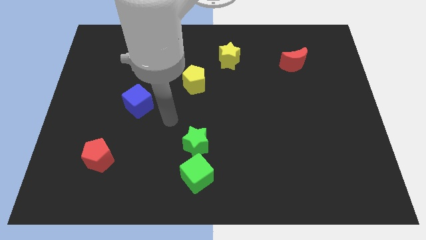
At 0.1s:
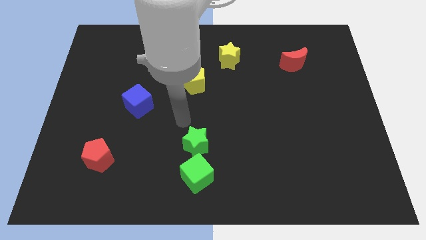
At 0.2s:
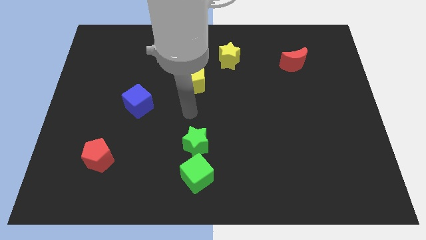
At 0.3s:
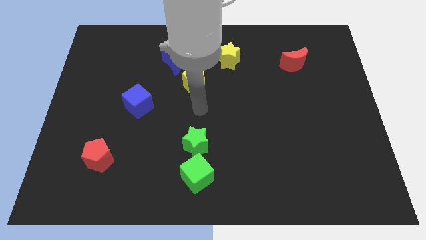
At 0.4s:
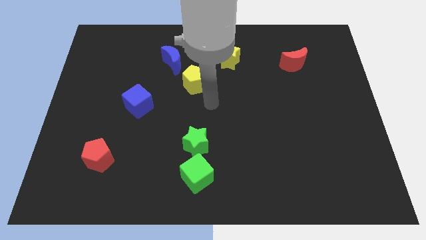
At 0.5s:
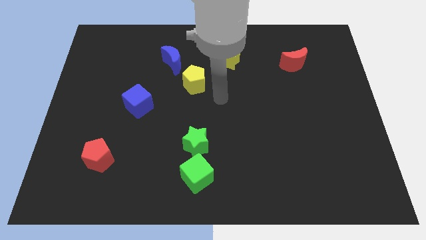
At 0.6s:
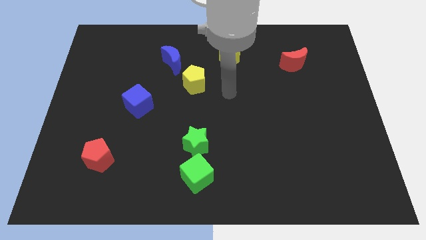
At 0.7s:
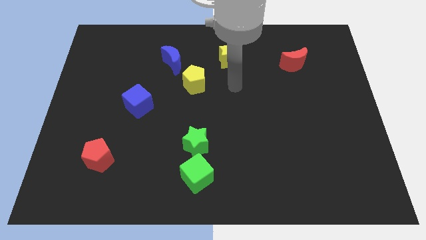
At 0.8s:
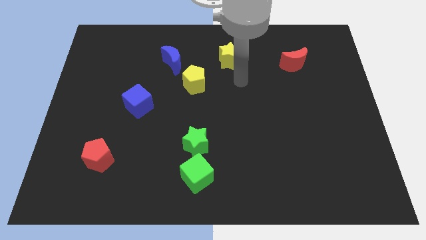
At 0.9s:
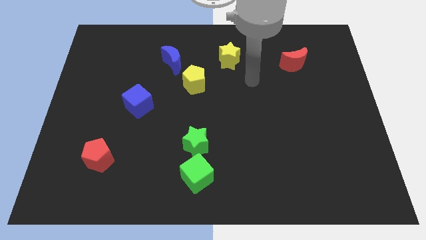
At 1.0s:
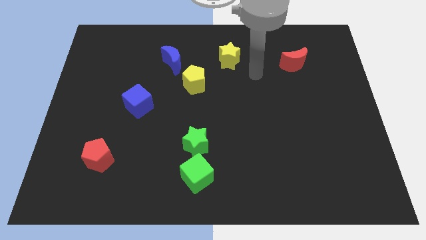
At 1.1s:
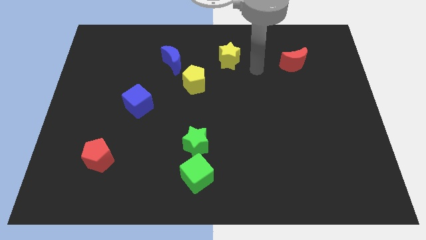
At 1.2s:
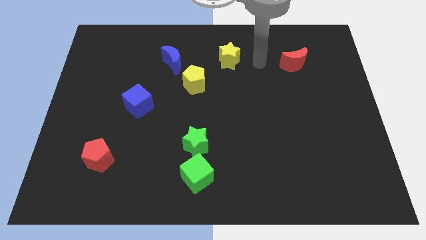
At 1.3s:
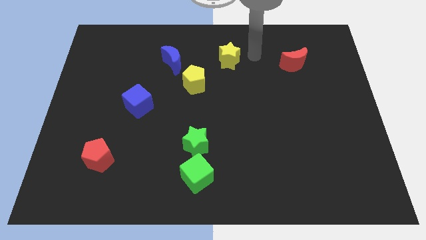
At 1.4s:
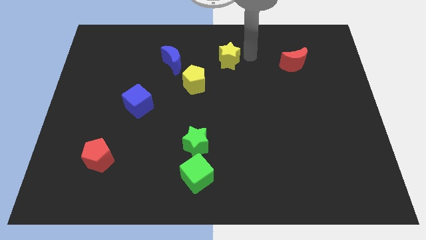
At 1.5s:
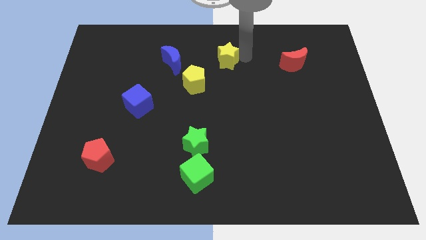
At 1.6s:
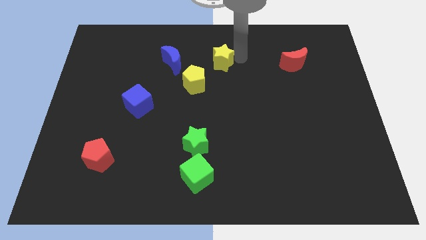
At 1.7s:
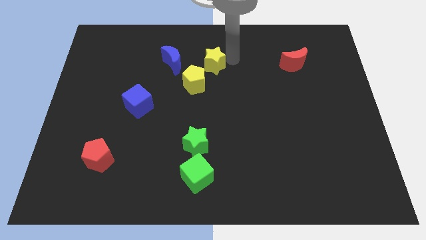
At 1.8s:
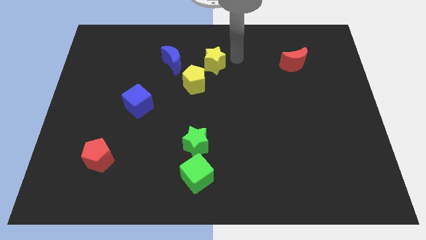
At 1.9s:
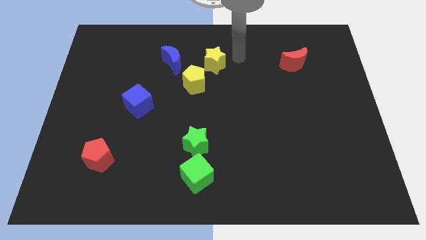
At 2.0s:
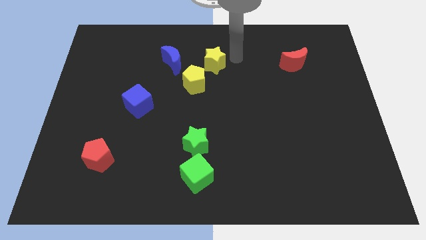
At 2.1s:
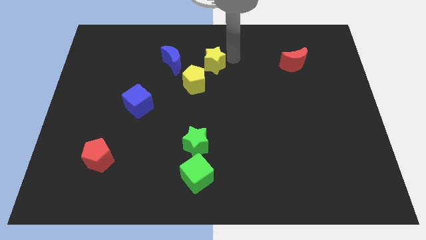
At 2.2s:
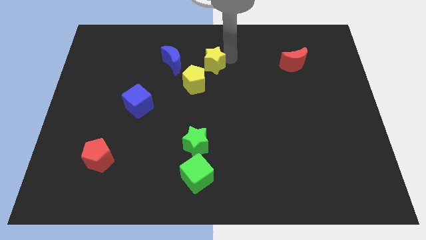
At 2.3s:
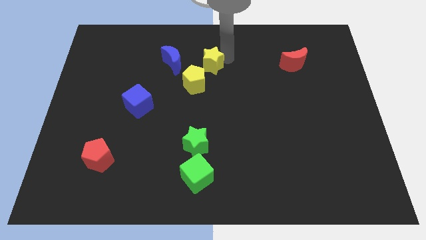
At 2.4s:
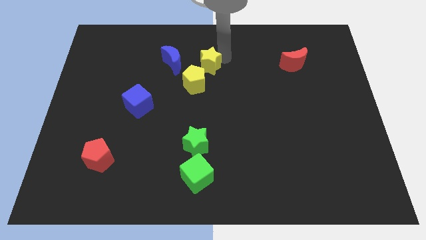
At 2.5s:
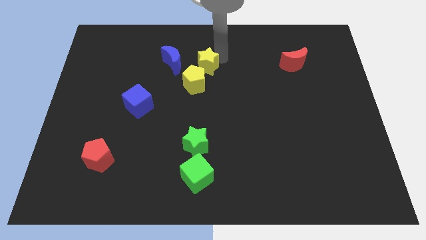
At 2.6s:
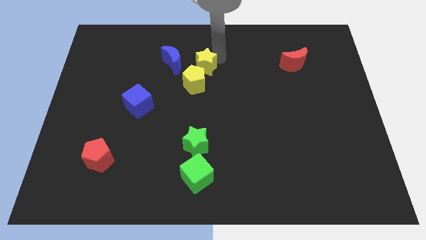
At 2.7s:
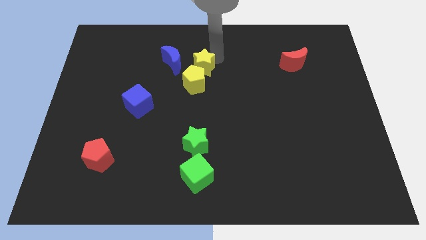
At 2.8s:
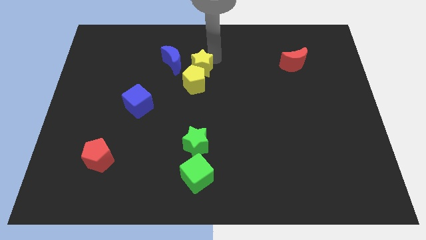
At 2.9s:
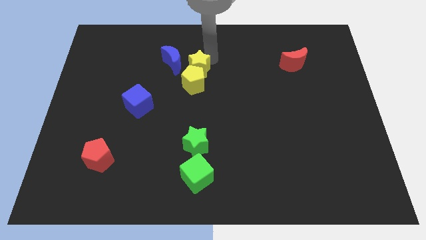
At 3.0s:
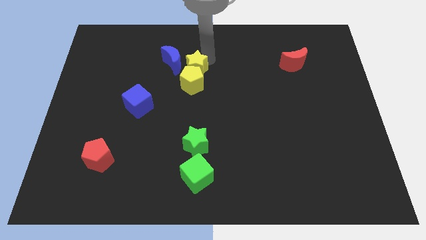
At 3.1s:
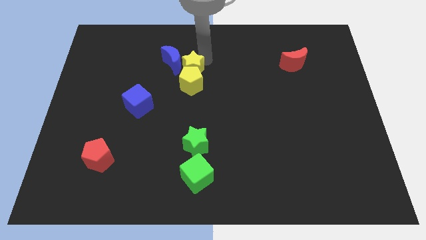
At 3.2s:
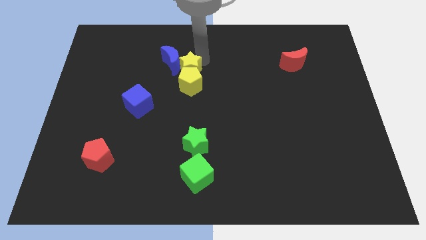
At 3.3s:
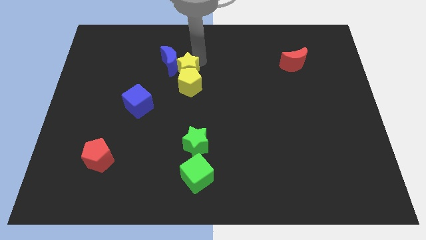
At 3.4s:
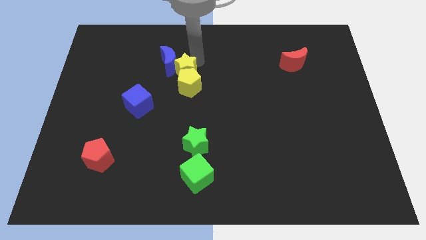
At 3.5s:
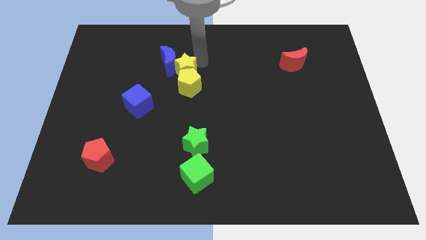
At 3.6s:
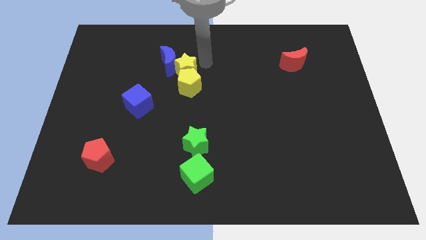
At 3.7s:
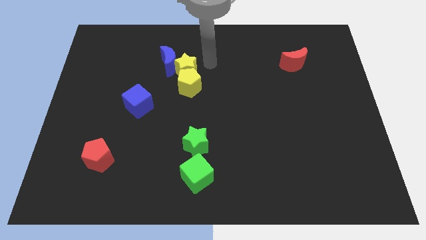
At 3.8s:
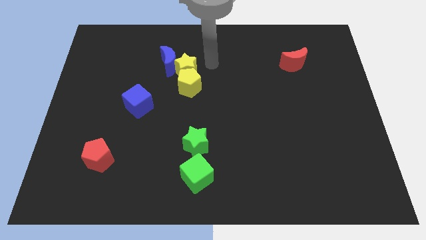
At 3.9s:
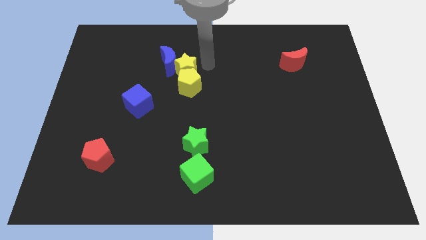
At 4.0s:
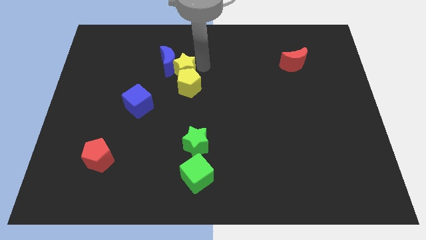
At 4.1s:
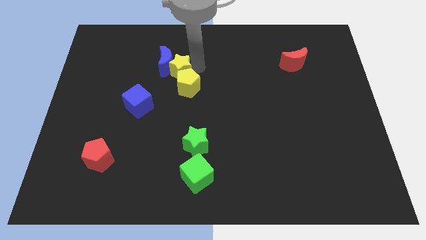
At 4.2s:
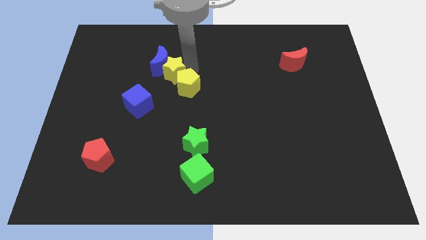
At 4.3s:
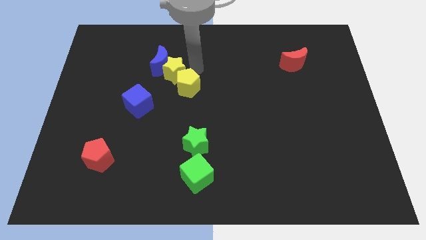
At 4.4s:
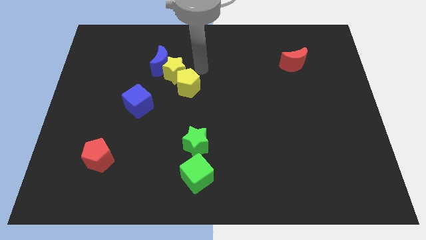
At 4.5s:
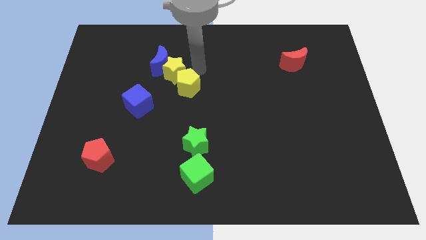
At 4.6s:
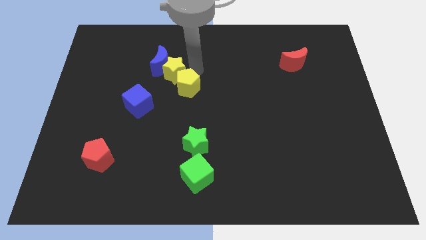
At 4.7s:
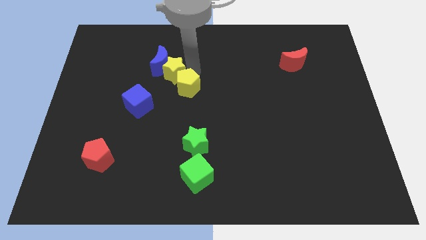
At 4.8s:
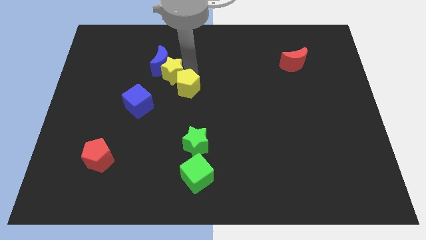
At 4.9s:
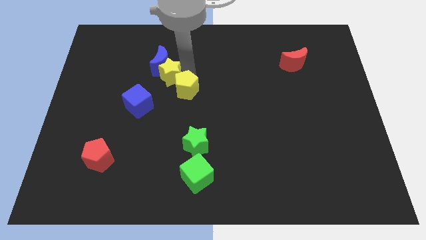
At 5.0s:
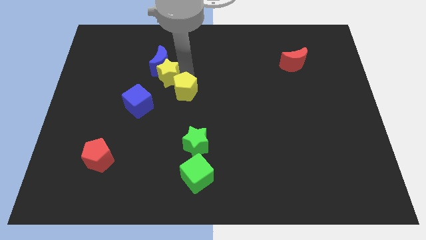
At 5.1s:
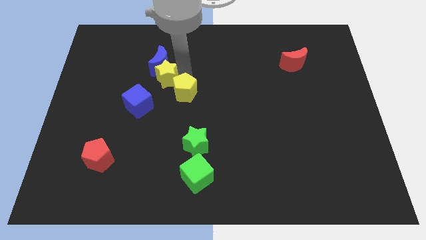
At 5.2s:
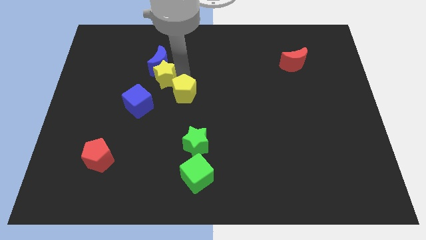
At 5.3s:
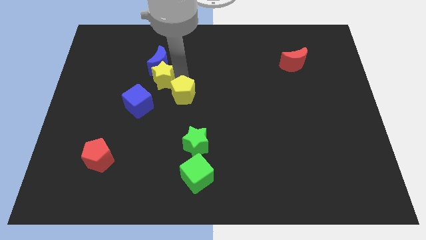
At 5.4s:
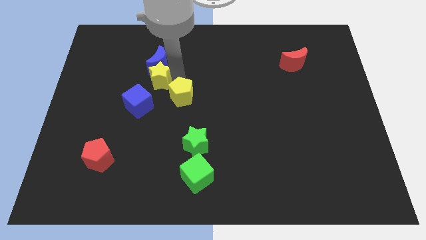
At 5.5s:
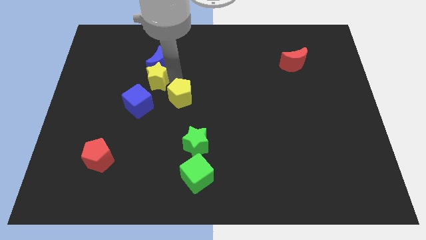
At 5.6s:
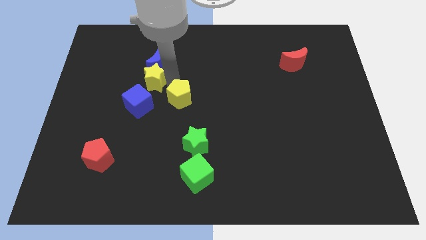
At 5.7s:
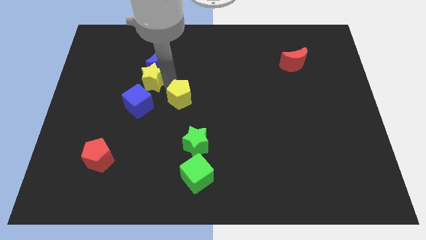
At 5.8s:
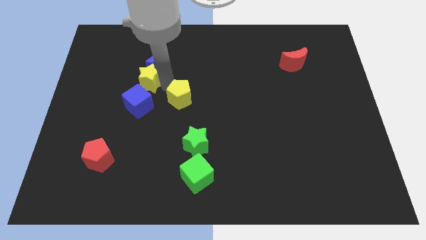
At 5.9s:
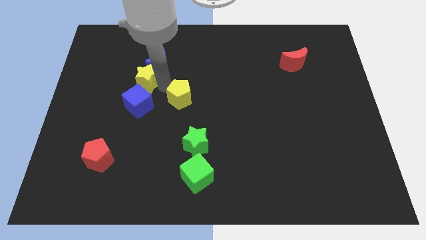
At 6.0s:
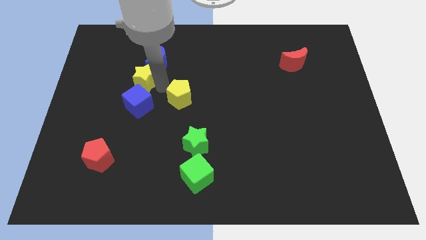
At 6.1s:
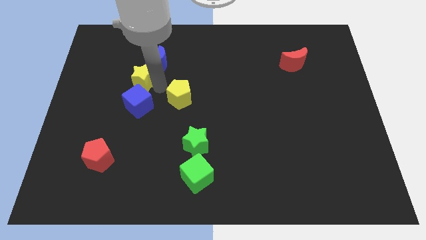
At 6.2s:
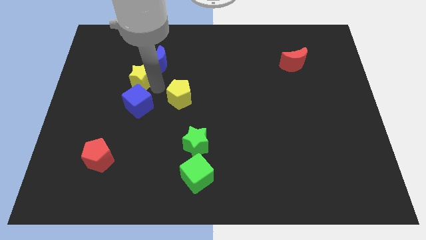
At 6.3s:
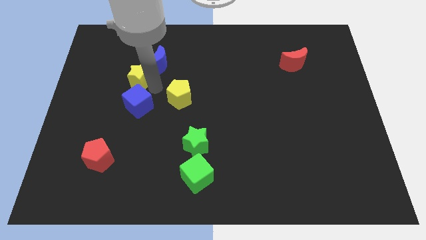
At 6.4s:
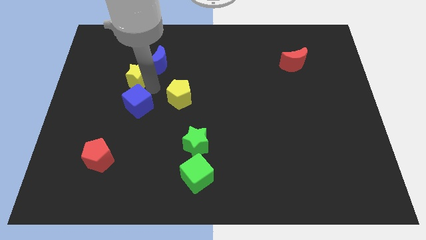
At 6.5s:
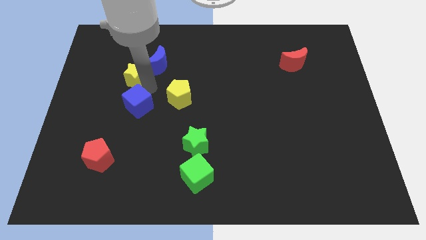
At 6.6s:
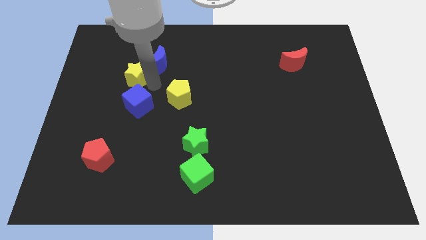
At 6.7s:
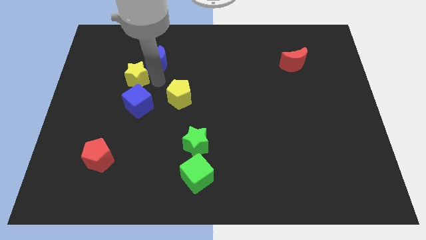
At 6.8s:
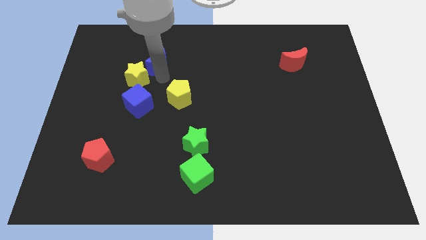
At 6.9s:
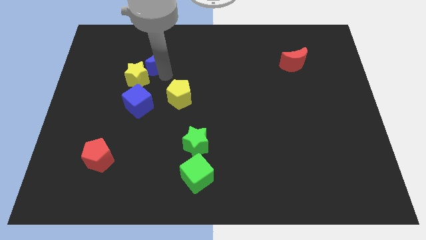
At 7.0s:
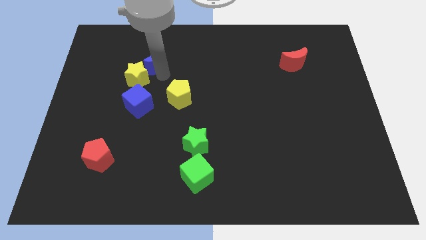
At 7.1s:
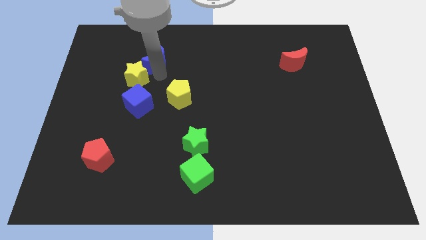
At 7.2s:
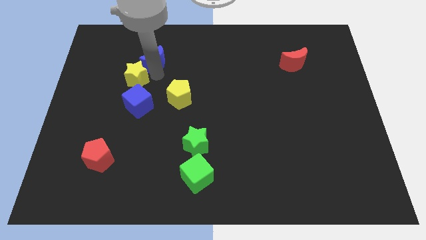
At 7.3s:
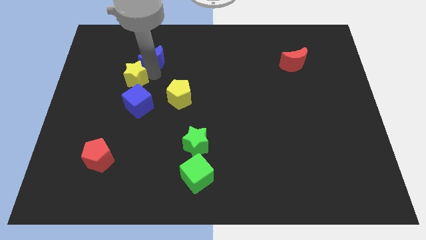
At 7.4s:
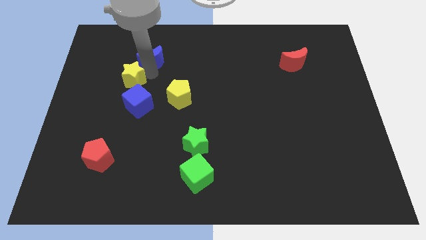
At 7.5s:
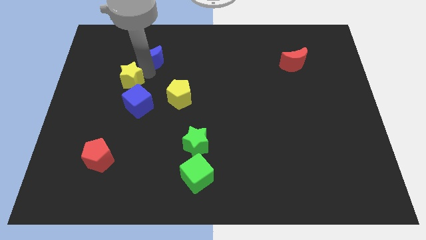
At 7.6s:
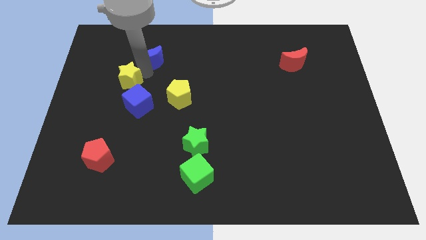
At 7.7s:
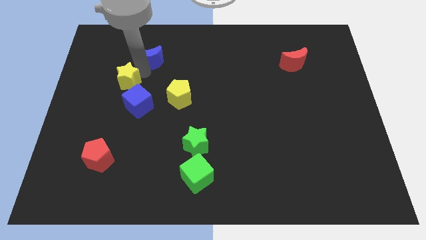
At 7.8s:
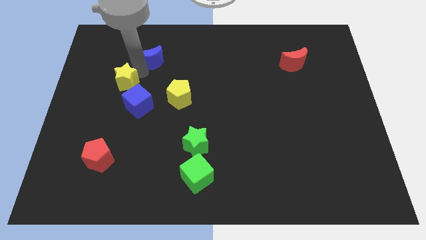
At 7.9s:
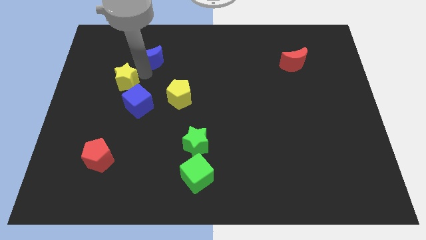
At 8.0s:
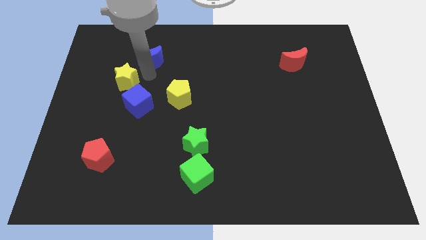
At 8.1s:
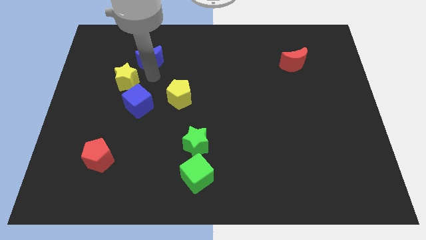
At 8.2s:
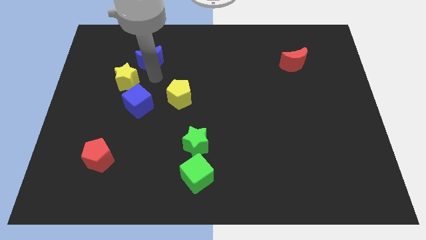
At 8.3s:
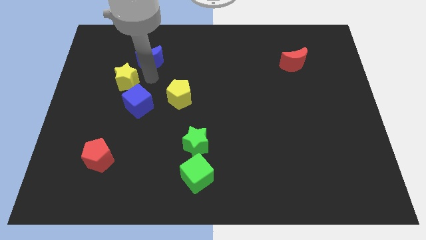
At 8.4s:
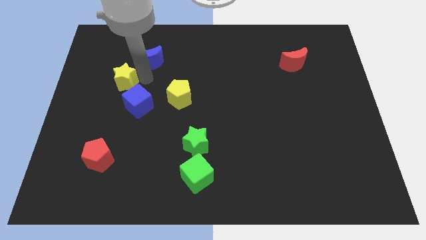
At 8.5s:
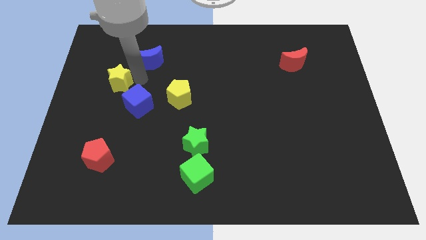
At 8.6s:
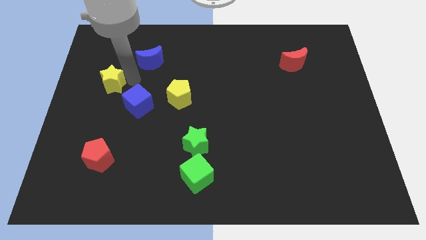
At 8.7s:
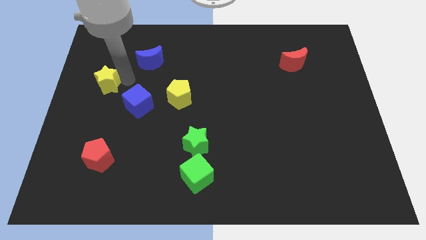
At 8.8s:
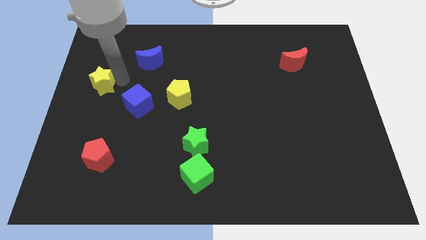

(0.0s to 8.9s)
push the yellow star to the left side
